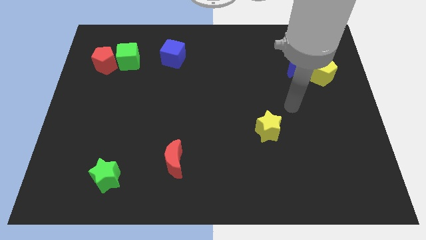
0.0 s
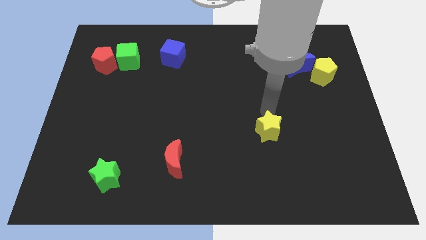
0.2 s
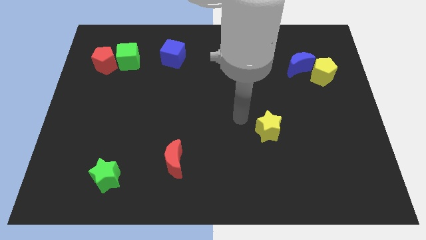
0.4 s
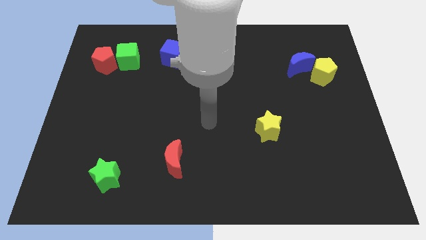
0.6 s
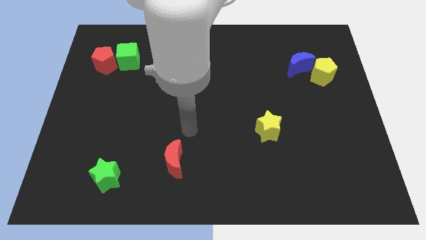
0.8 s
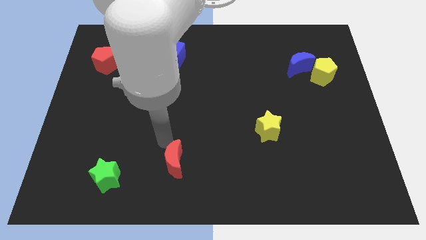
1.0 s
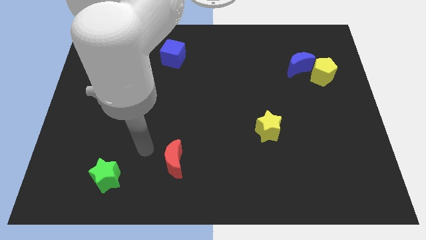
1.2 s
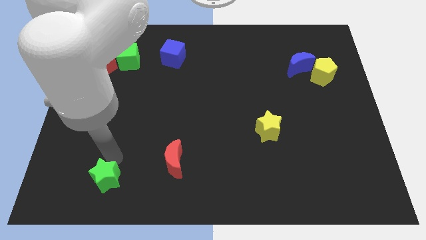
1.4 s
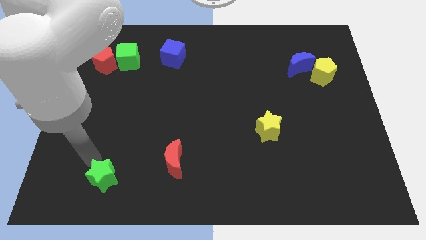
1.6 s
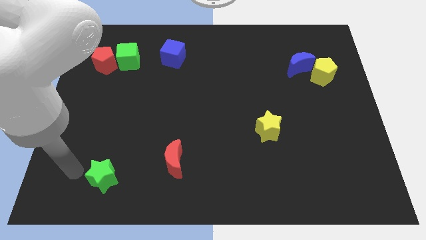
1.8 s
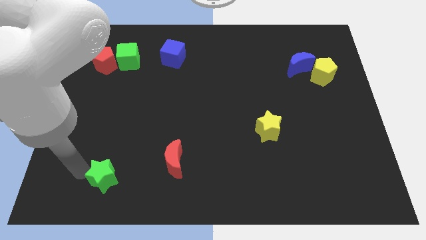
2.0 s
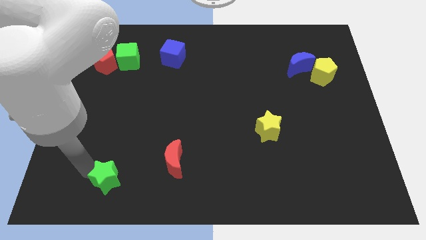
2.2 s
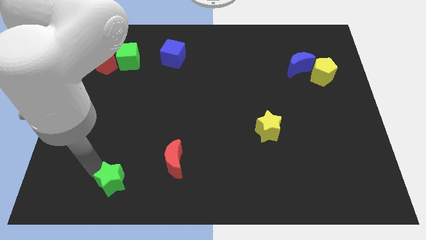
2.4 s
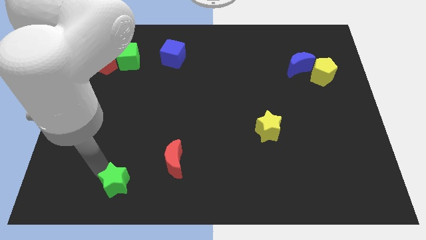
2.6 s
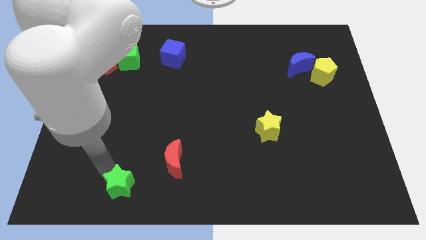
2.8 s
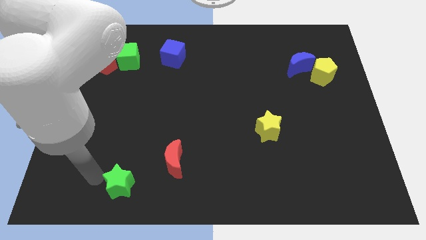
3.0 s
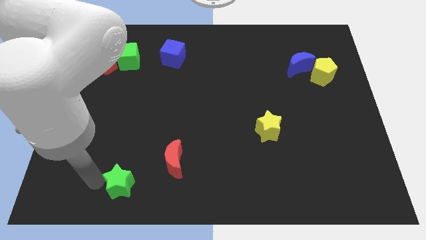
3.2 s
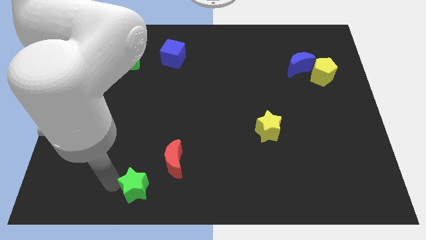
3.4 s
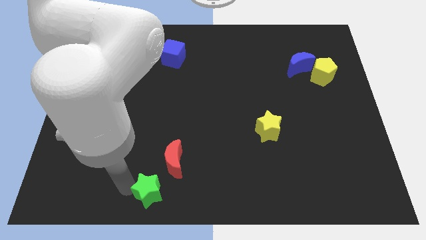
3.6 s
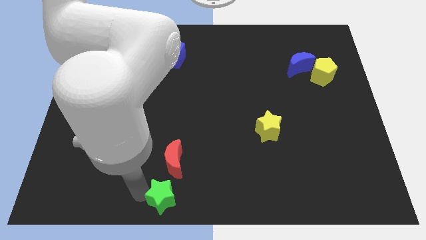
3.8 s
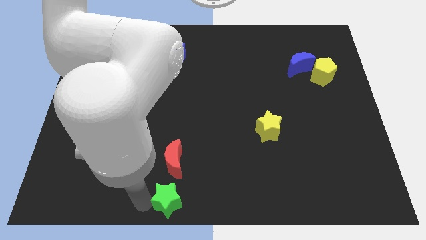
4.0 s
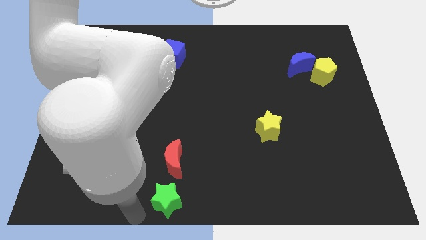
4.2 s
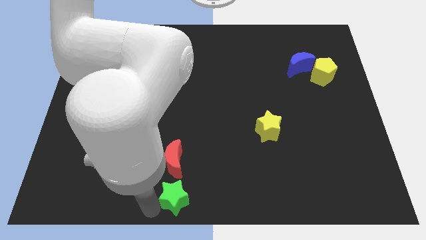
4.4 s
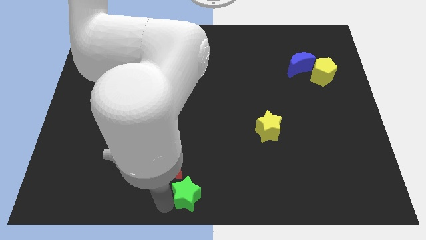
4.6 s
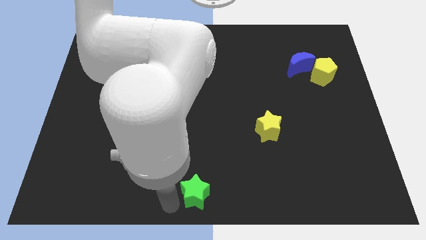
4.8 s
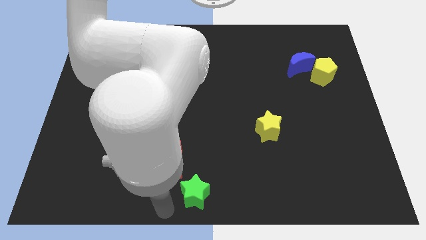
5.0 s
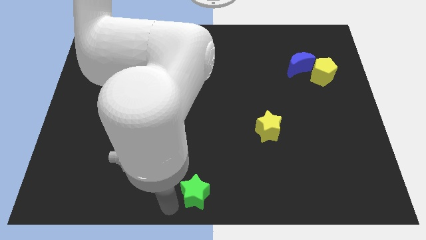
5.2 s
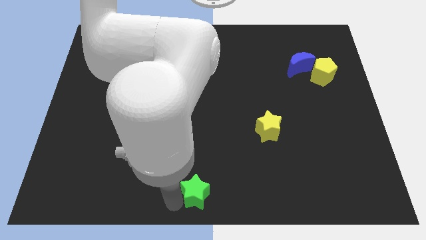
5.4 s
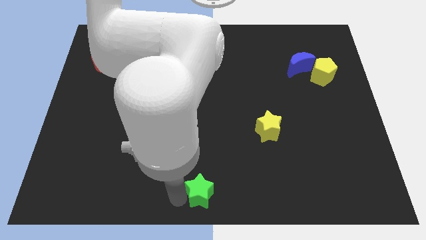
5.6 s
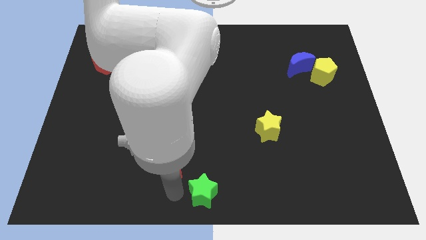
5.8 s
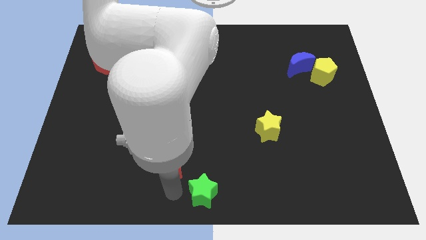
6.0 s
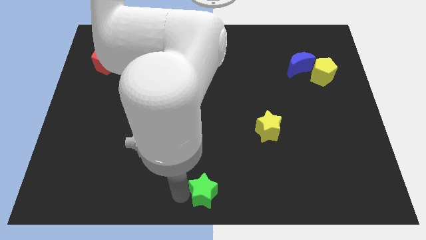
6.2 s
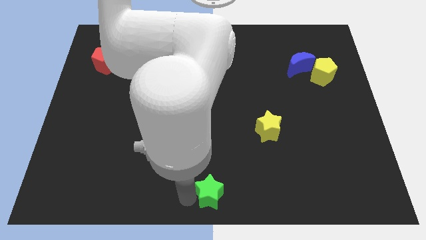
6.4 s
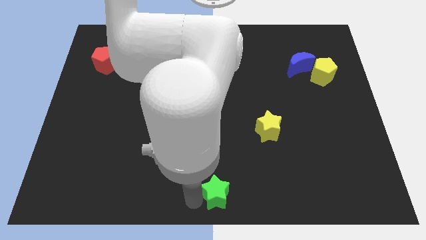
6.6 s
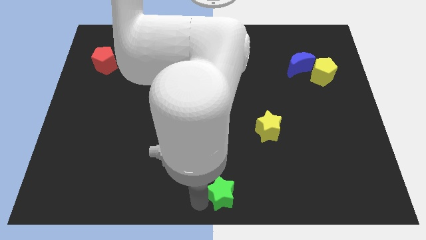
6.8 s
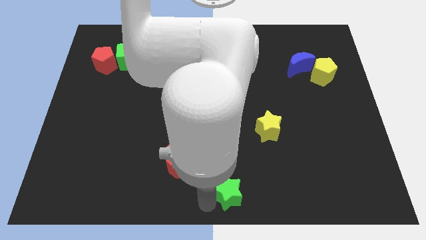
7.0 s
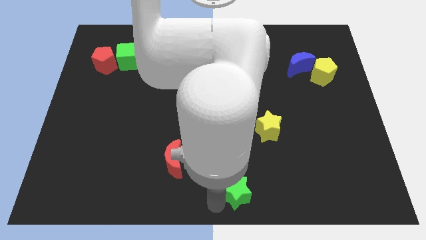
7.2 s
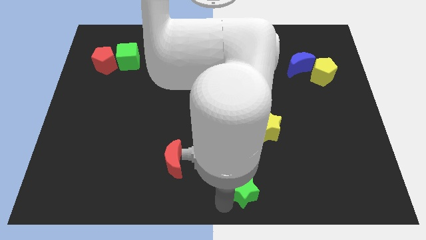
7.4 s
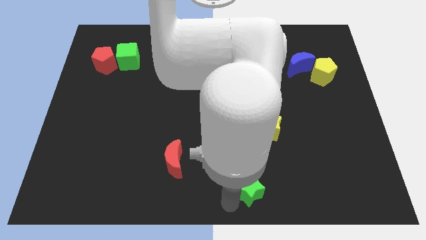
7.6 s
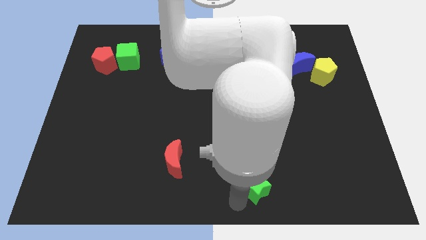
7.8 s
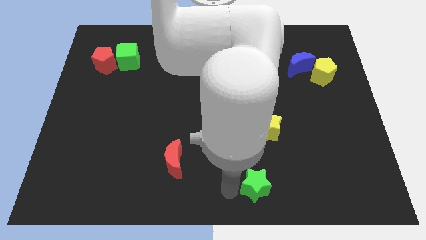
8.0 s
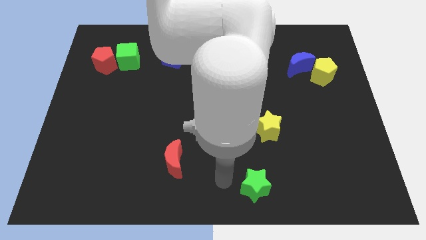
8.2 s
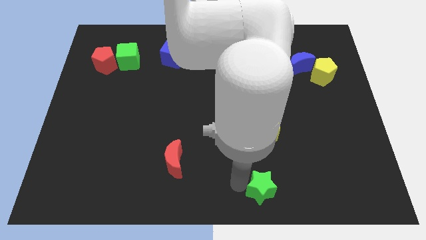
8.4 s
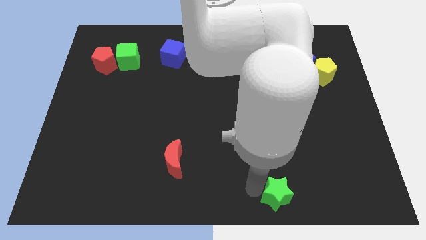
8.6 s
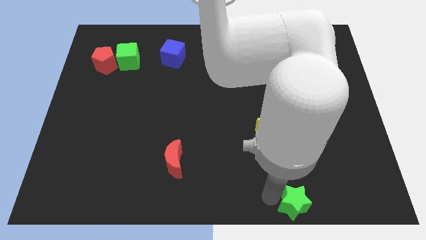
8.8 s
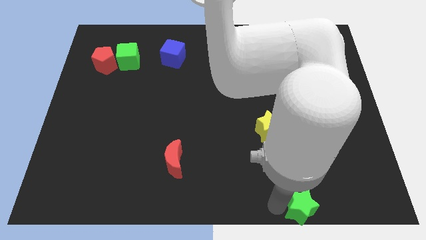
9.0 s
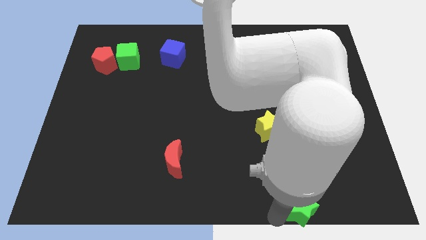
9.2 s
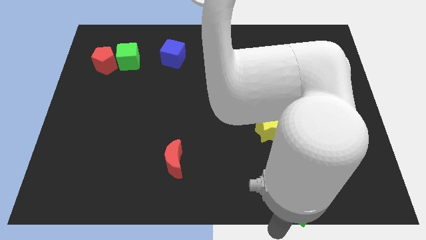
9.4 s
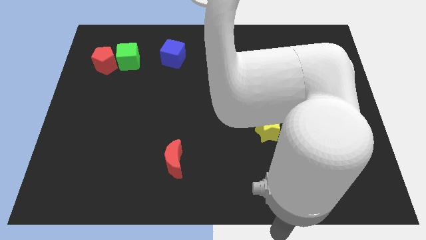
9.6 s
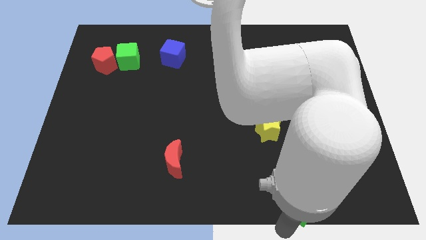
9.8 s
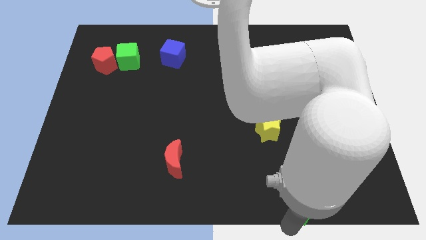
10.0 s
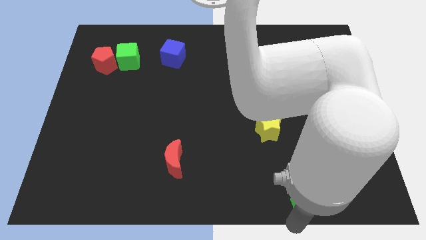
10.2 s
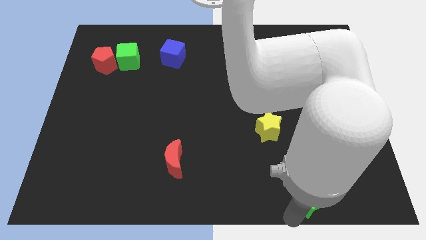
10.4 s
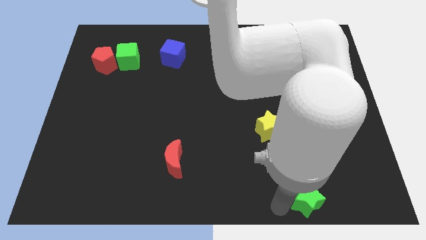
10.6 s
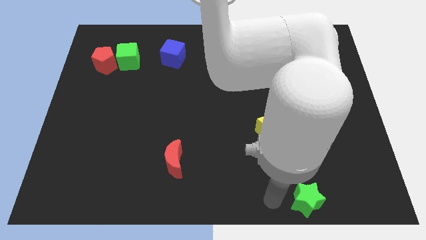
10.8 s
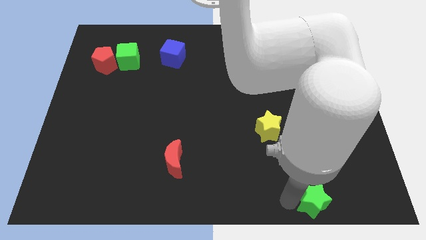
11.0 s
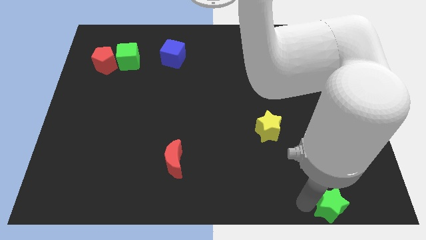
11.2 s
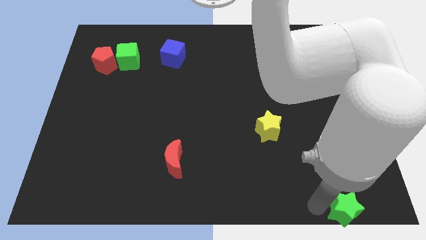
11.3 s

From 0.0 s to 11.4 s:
move the green star to the bottom right corner

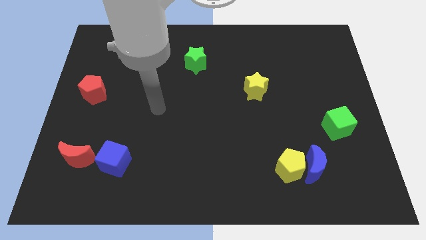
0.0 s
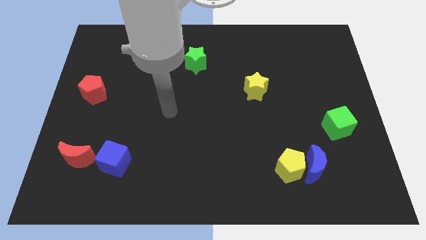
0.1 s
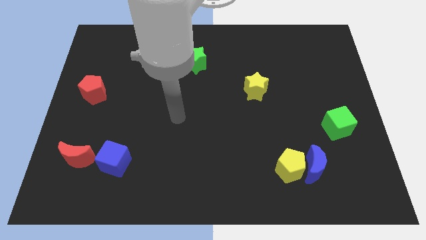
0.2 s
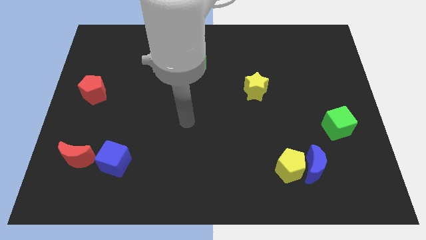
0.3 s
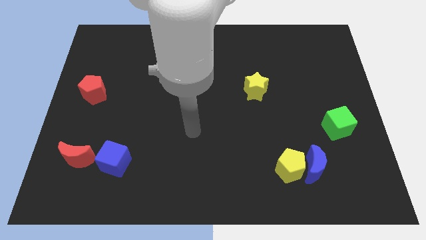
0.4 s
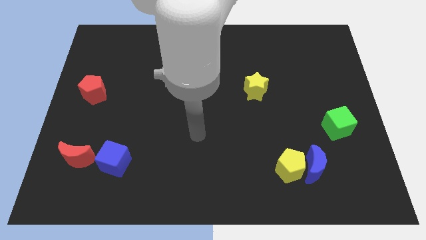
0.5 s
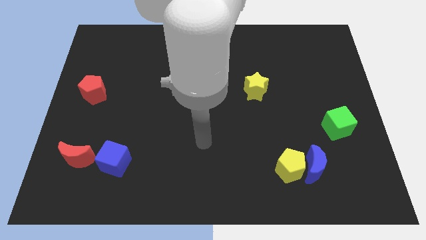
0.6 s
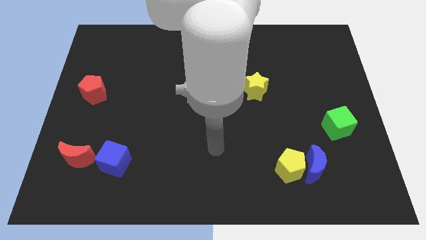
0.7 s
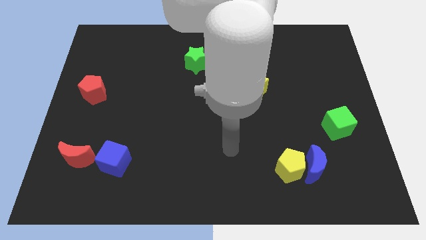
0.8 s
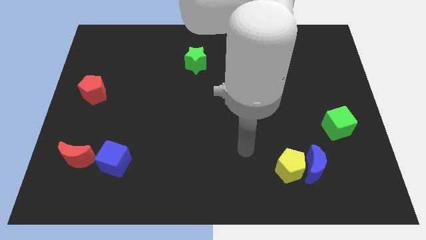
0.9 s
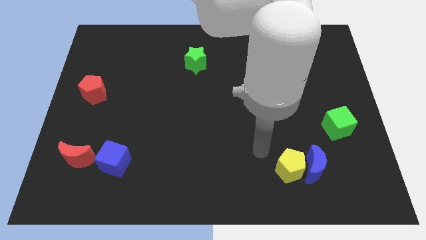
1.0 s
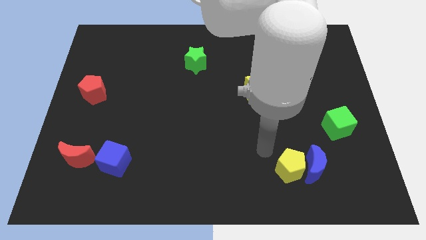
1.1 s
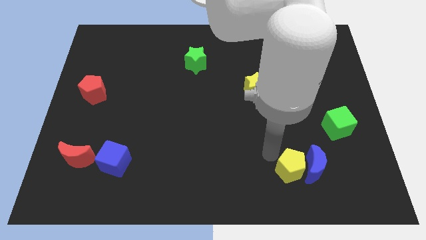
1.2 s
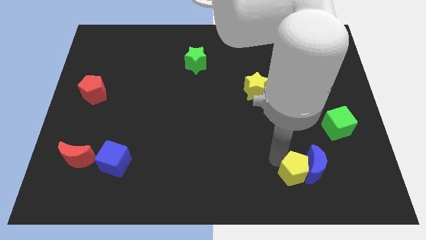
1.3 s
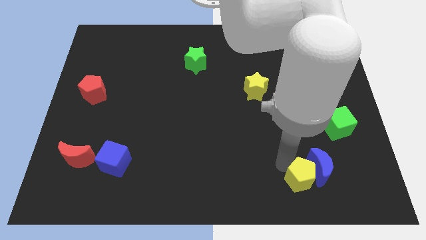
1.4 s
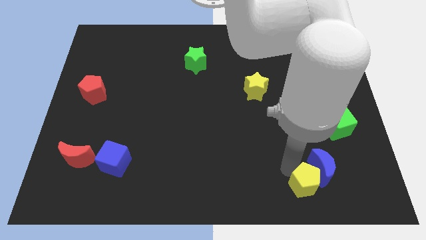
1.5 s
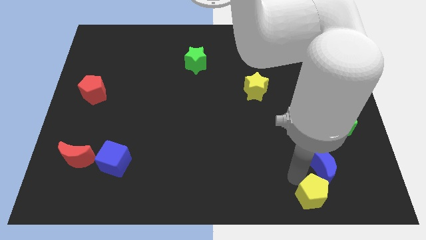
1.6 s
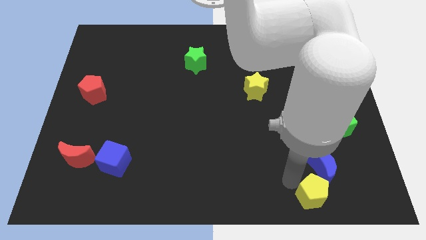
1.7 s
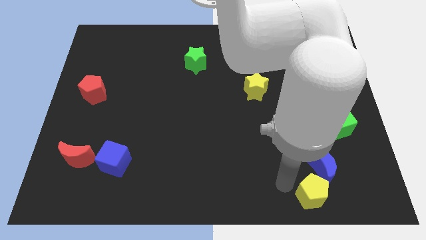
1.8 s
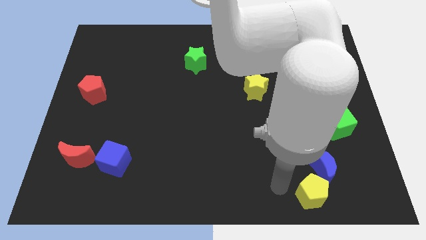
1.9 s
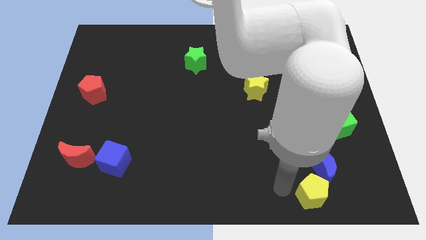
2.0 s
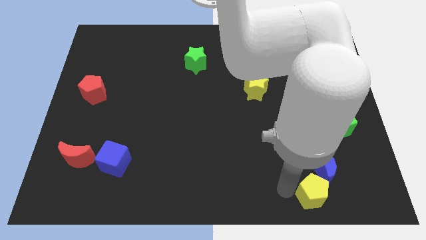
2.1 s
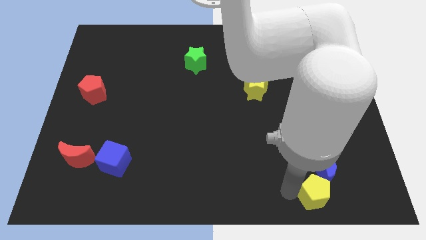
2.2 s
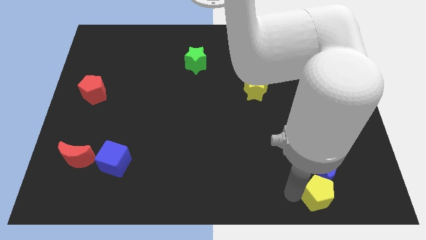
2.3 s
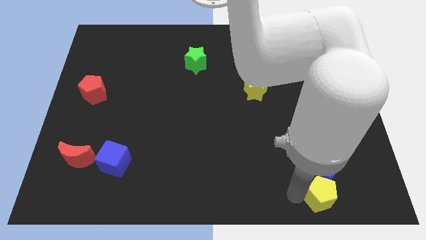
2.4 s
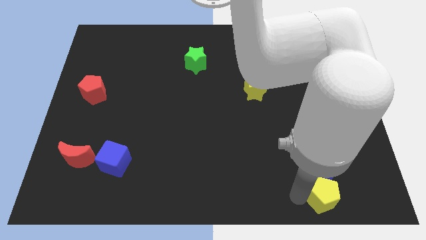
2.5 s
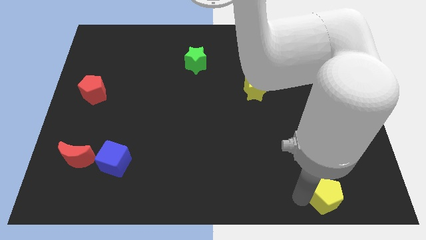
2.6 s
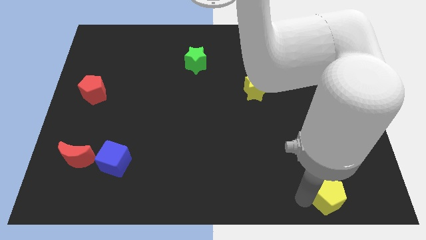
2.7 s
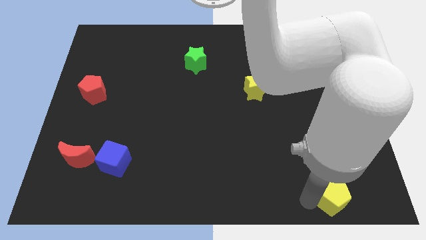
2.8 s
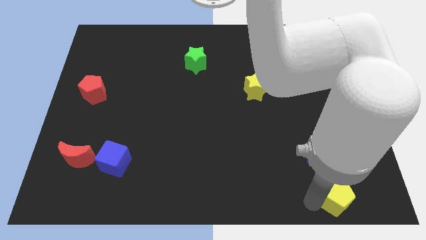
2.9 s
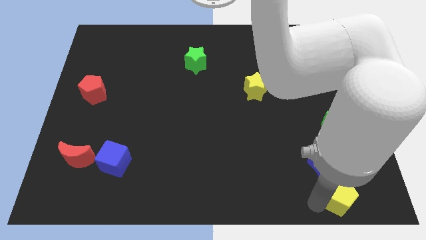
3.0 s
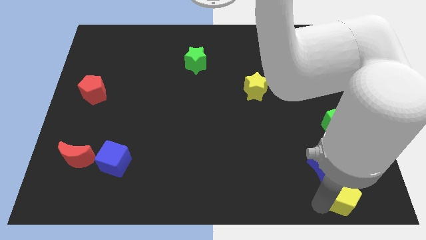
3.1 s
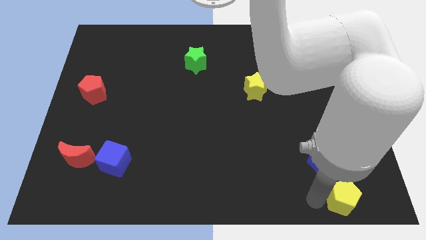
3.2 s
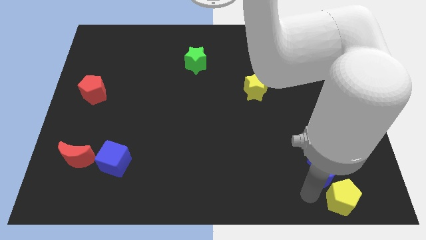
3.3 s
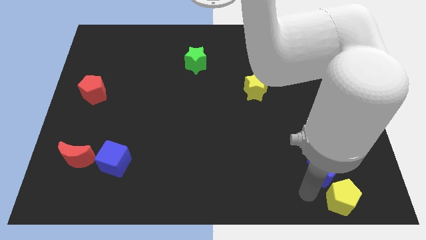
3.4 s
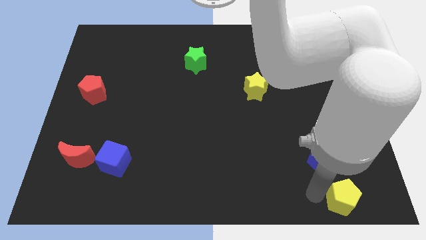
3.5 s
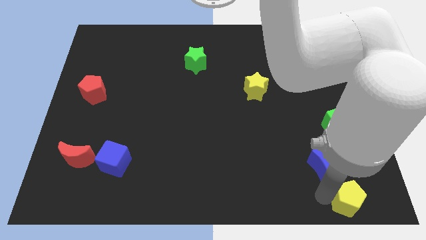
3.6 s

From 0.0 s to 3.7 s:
put the yellow pentagon to the bottom right
